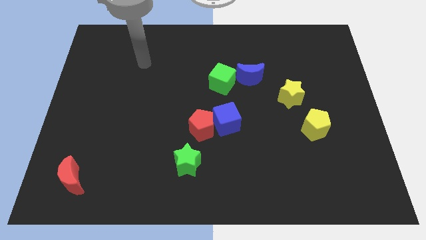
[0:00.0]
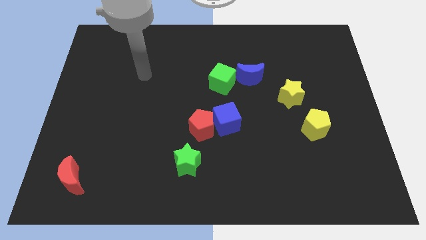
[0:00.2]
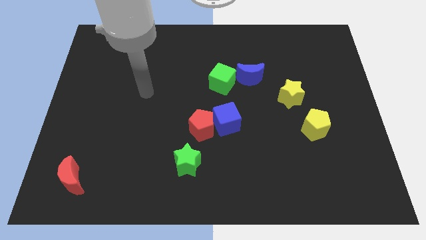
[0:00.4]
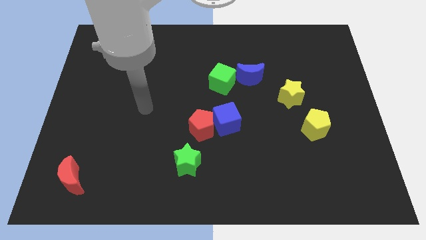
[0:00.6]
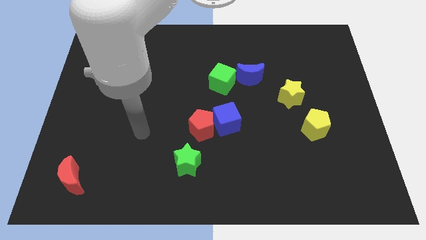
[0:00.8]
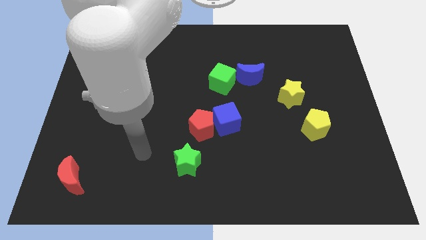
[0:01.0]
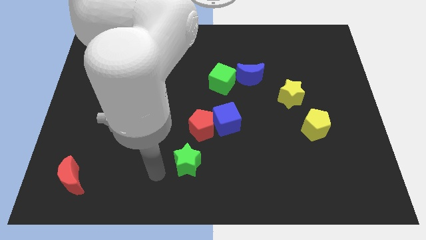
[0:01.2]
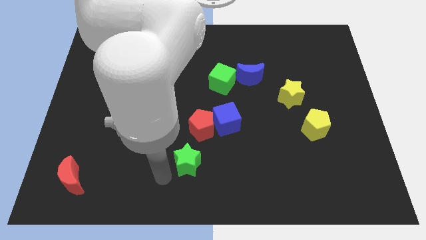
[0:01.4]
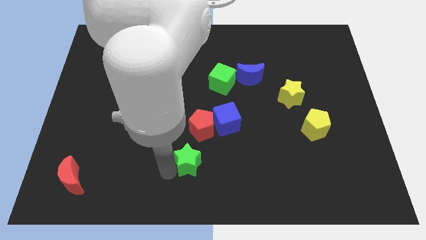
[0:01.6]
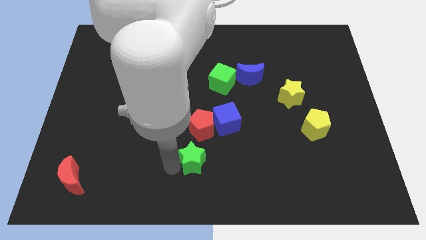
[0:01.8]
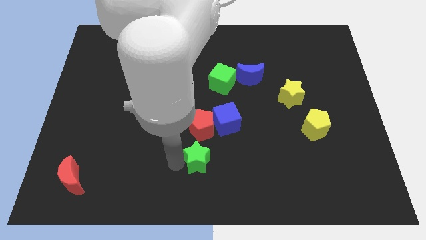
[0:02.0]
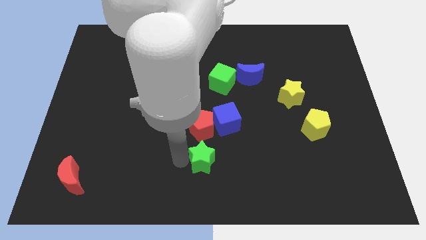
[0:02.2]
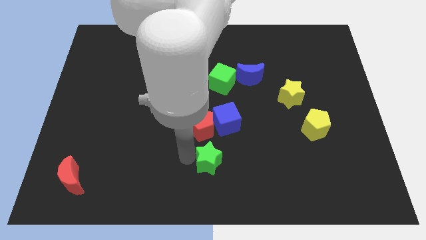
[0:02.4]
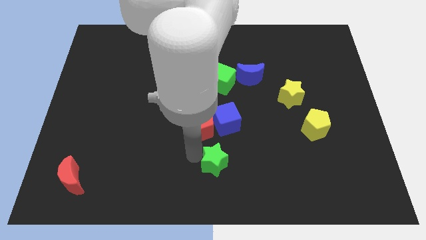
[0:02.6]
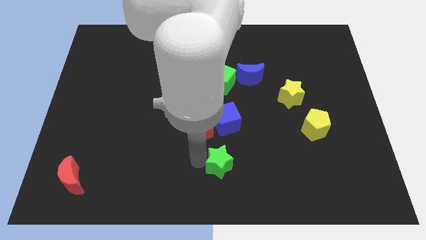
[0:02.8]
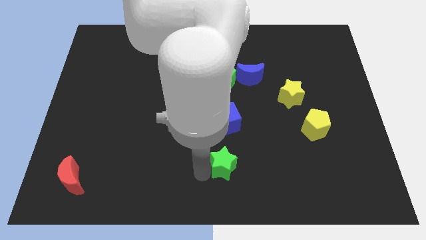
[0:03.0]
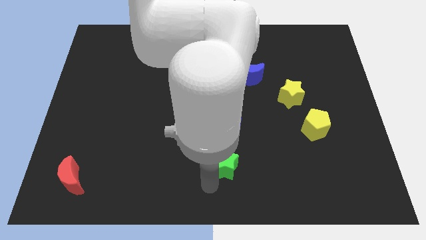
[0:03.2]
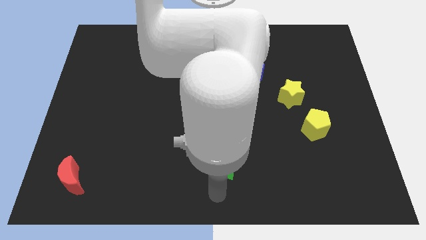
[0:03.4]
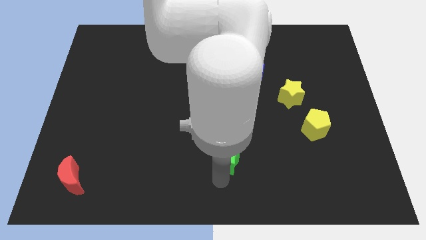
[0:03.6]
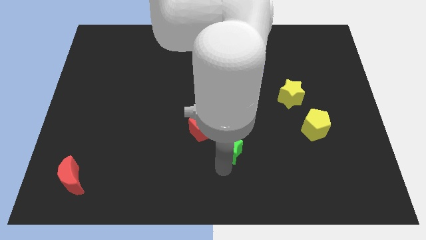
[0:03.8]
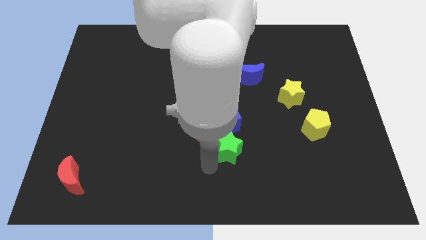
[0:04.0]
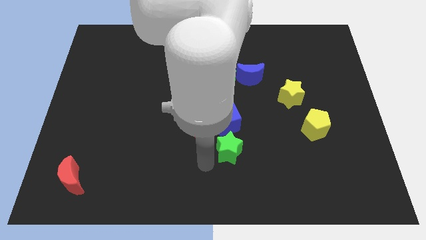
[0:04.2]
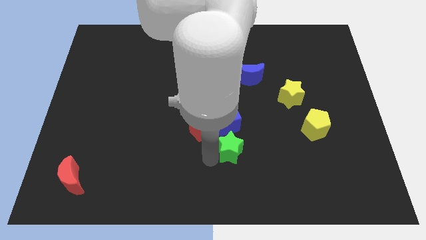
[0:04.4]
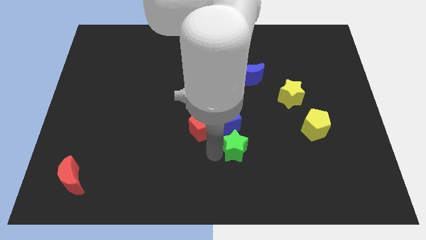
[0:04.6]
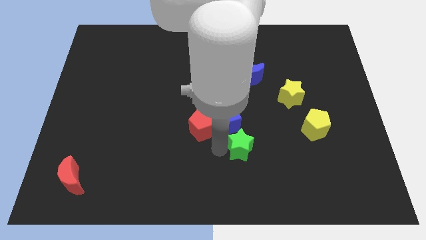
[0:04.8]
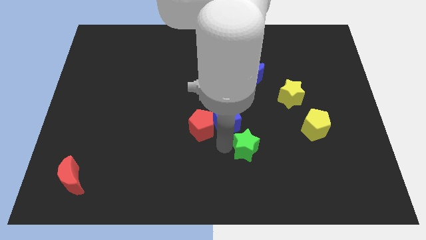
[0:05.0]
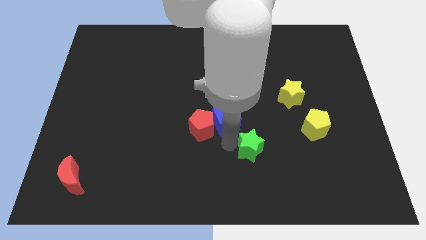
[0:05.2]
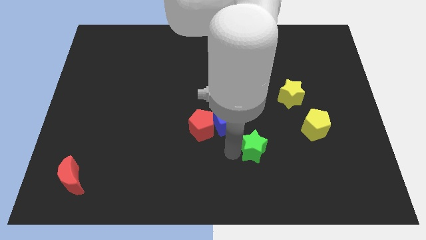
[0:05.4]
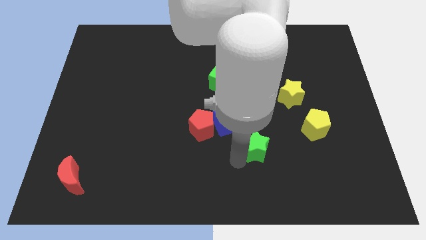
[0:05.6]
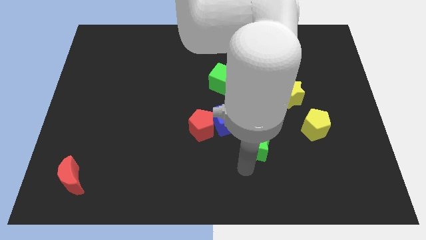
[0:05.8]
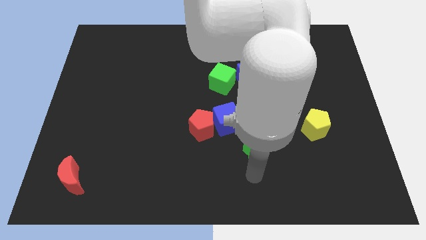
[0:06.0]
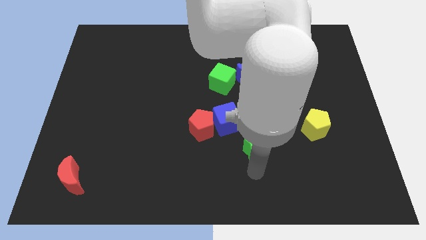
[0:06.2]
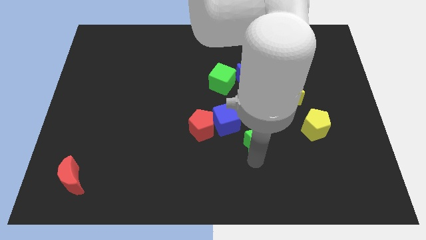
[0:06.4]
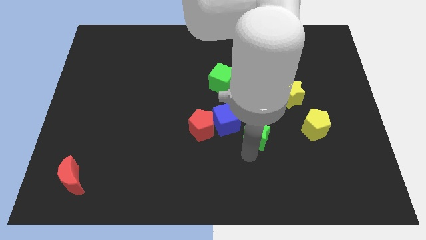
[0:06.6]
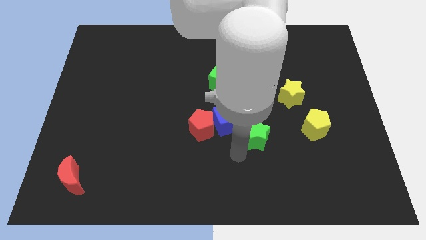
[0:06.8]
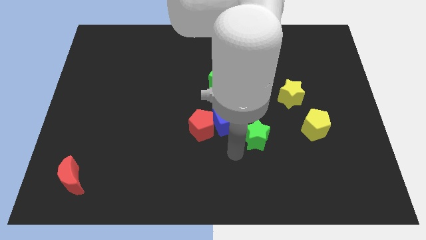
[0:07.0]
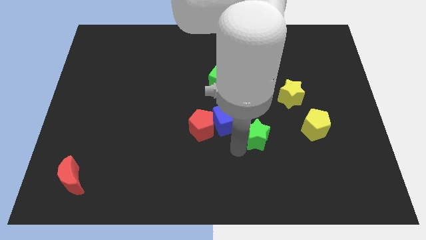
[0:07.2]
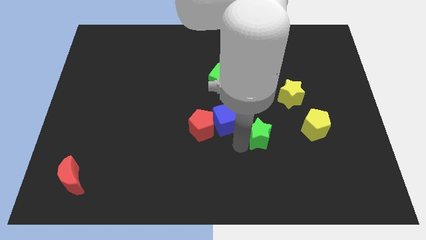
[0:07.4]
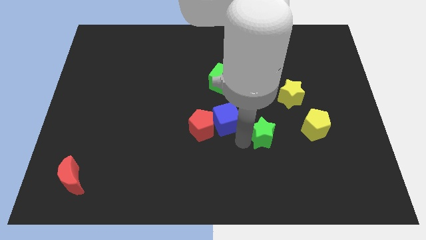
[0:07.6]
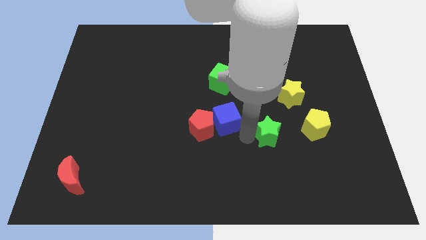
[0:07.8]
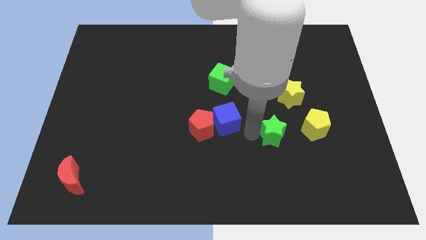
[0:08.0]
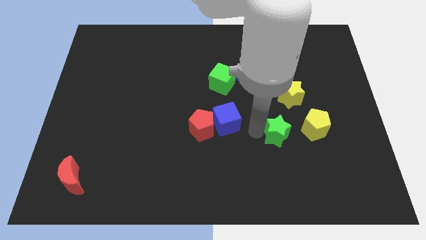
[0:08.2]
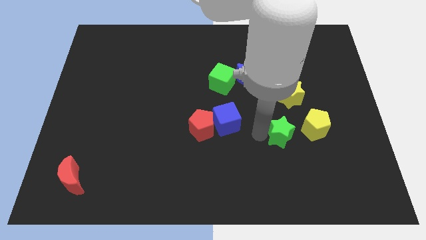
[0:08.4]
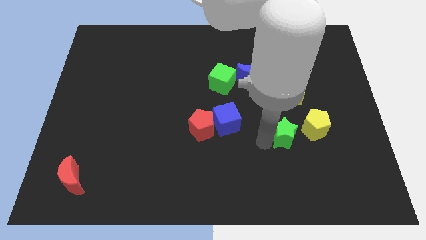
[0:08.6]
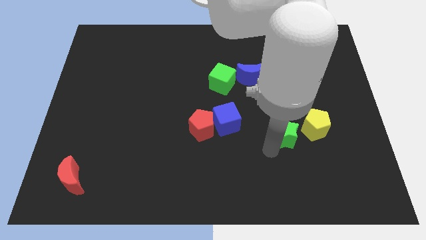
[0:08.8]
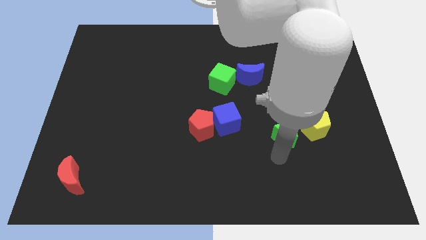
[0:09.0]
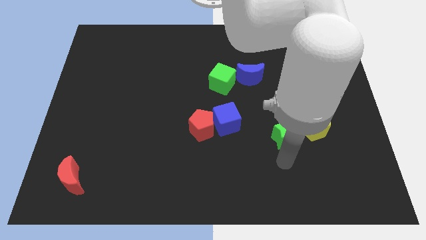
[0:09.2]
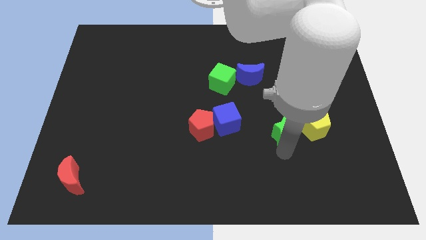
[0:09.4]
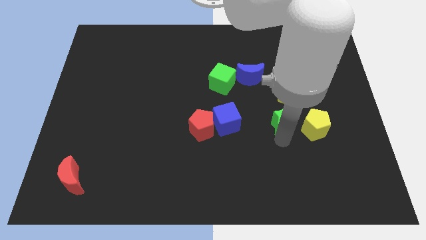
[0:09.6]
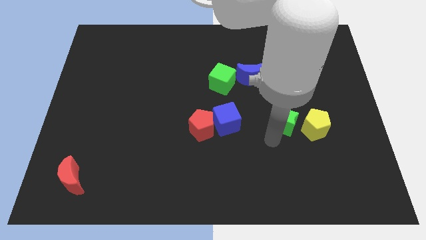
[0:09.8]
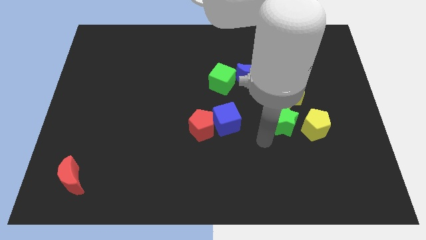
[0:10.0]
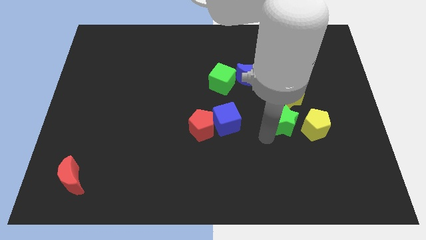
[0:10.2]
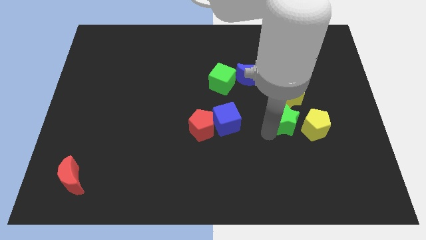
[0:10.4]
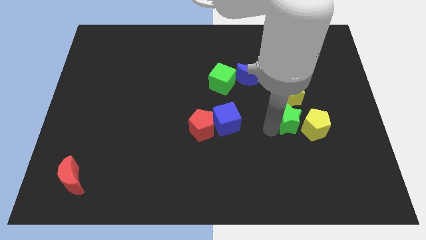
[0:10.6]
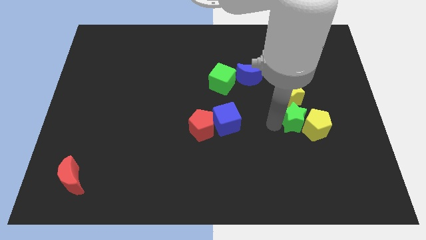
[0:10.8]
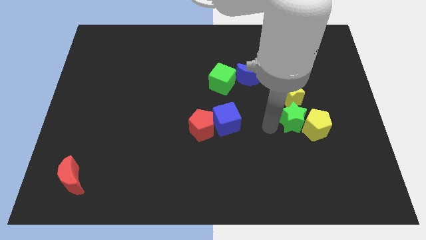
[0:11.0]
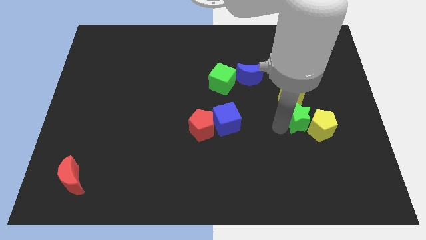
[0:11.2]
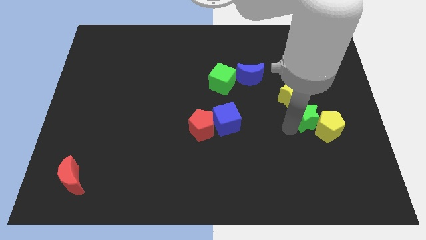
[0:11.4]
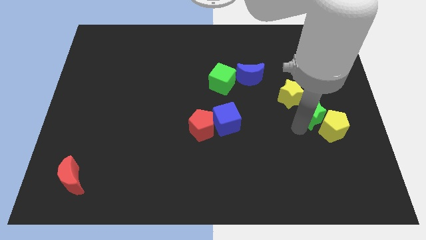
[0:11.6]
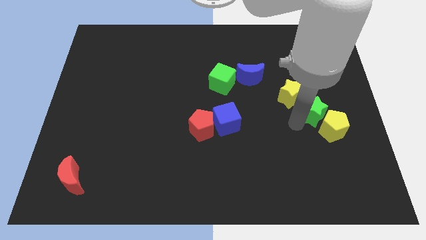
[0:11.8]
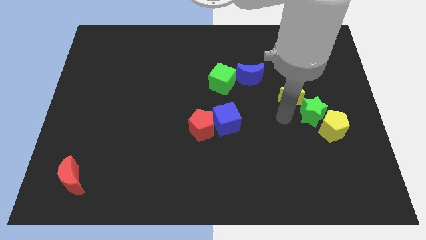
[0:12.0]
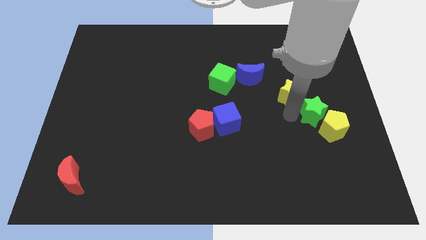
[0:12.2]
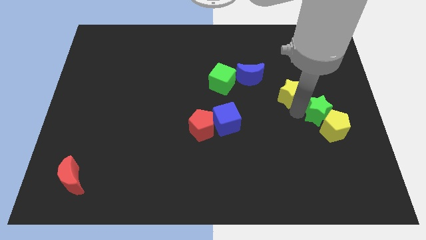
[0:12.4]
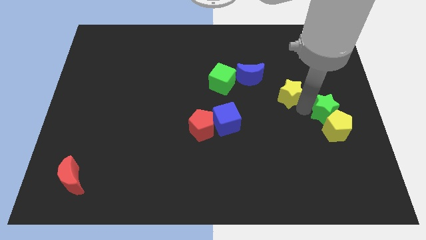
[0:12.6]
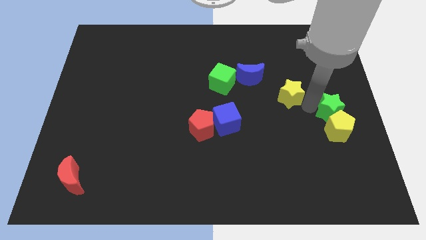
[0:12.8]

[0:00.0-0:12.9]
put the green star to the top right of the yellow pentagon

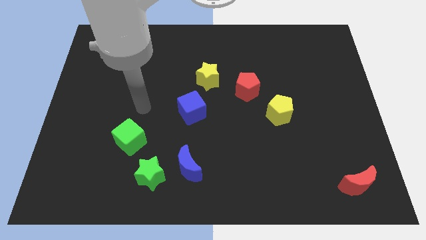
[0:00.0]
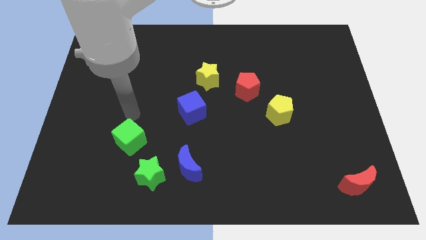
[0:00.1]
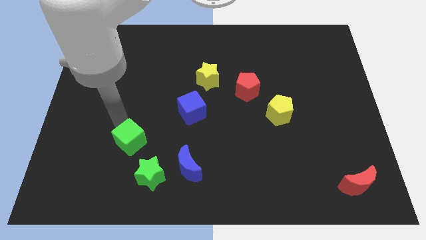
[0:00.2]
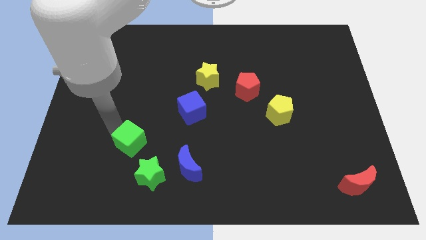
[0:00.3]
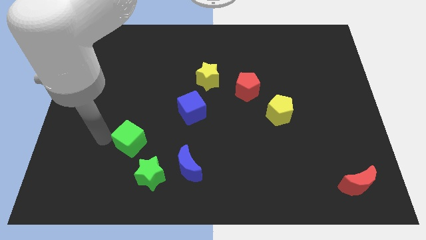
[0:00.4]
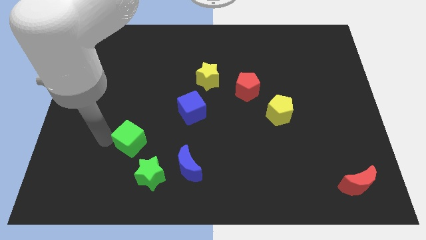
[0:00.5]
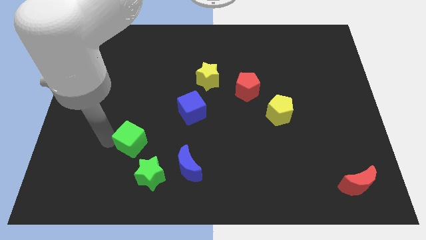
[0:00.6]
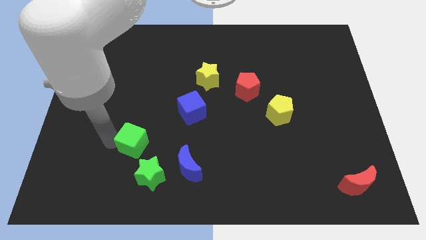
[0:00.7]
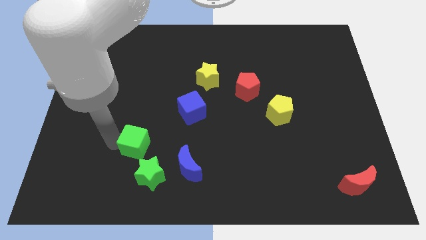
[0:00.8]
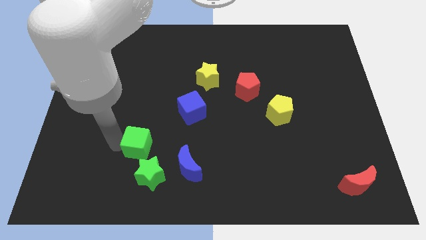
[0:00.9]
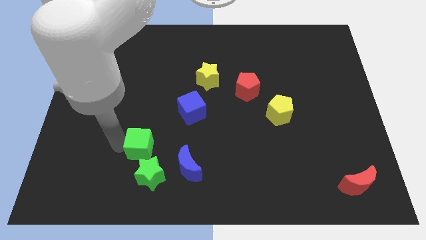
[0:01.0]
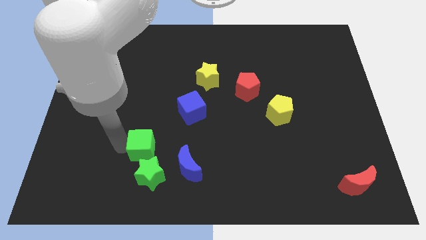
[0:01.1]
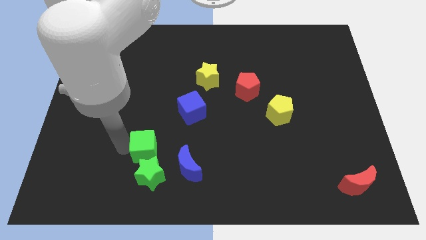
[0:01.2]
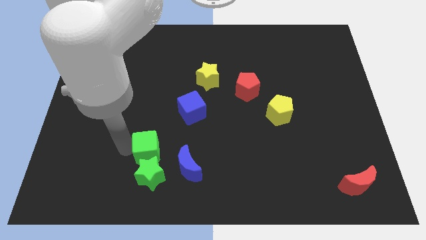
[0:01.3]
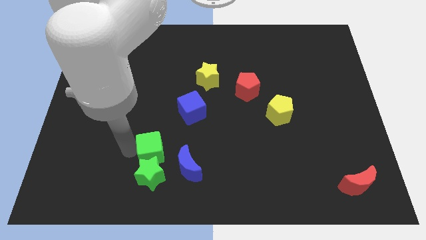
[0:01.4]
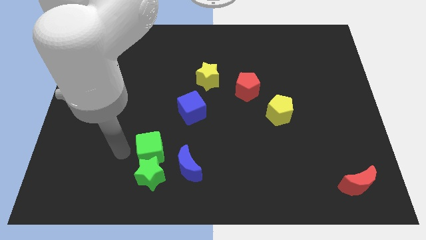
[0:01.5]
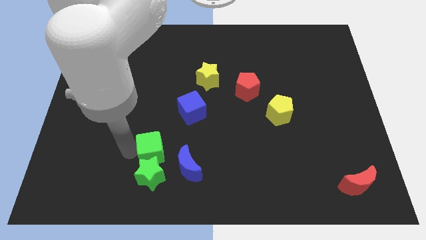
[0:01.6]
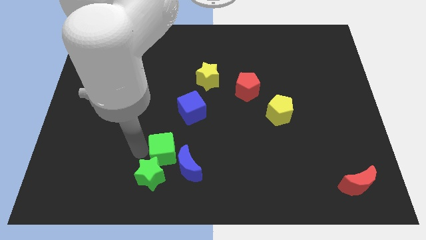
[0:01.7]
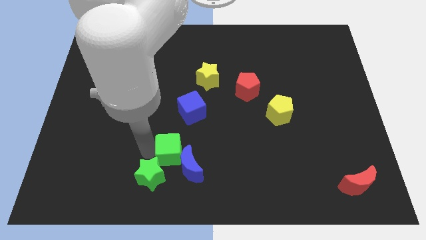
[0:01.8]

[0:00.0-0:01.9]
put the green cube to the bottom side of the blue cube
